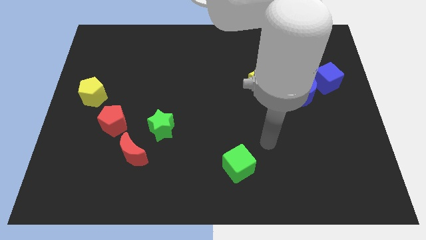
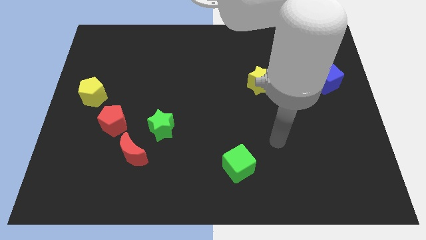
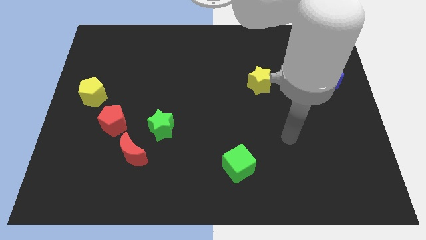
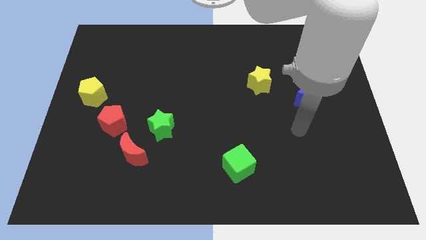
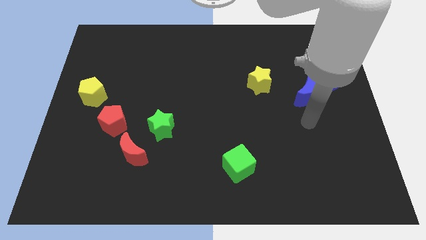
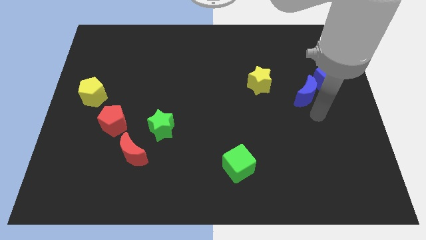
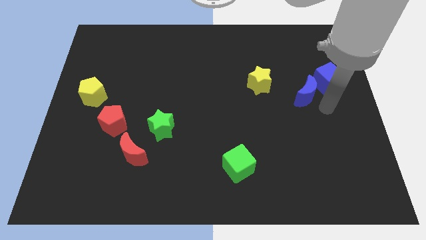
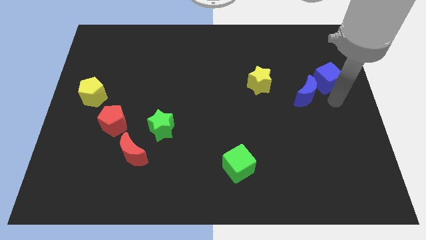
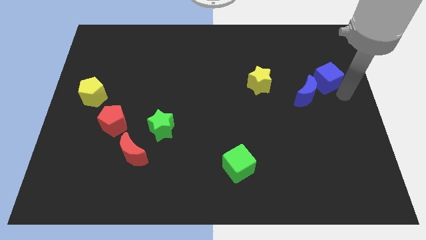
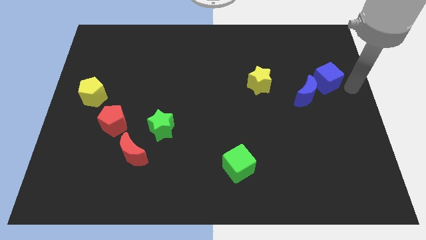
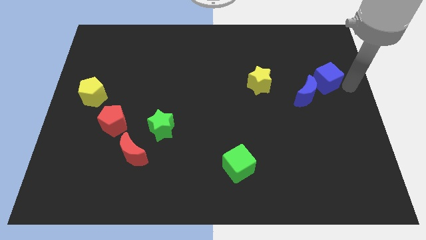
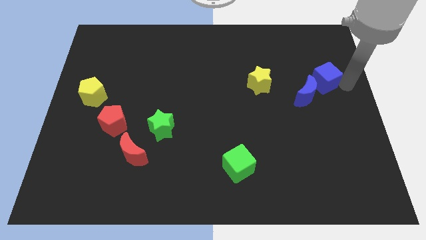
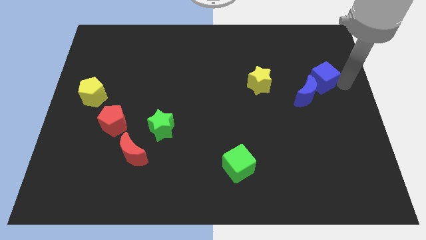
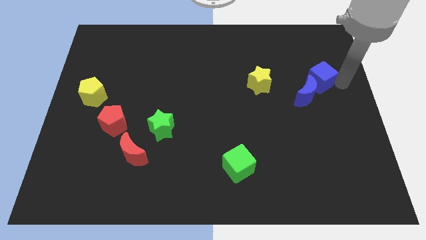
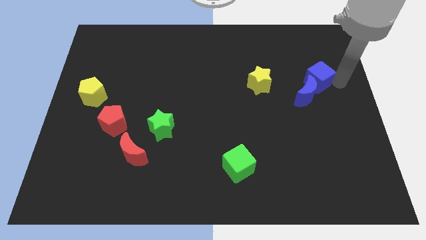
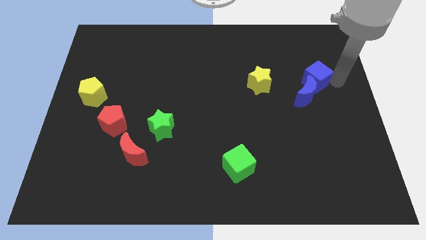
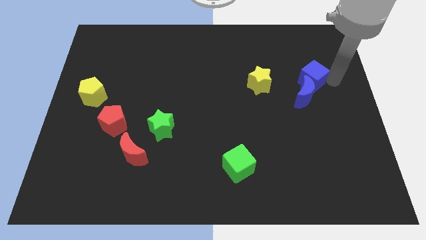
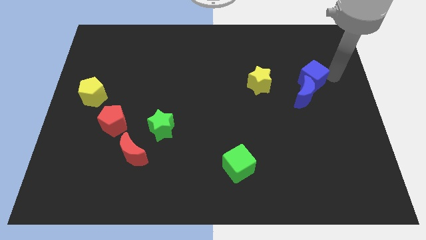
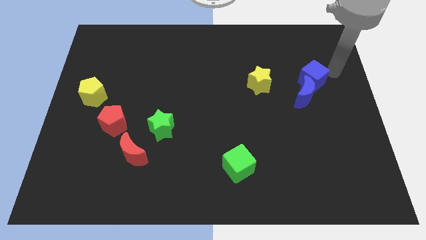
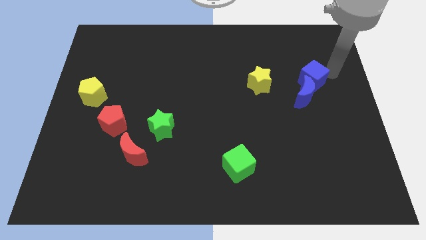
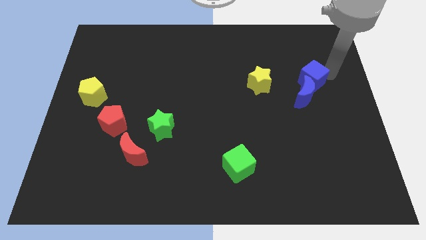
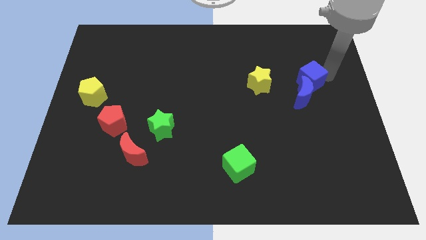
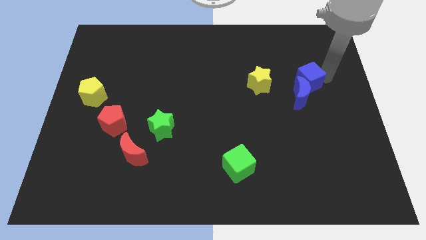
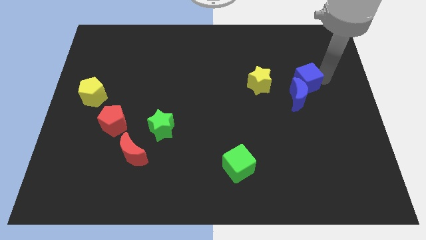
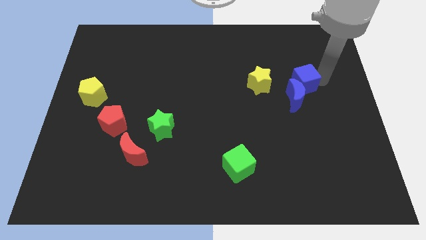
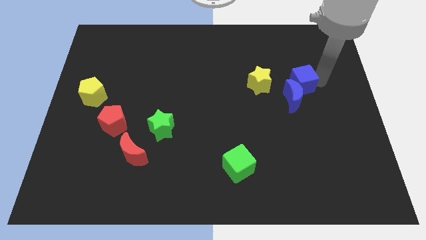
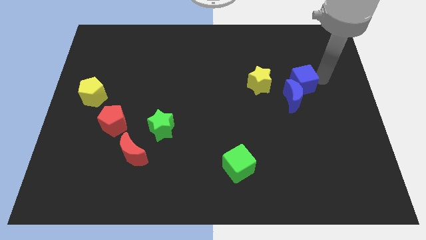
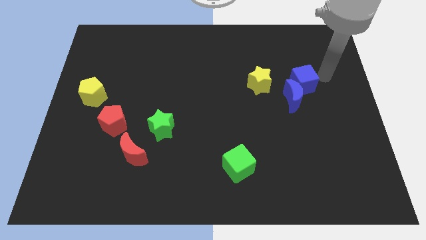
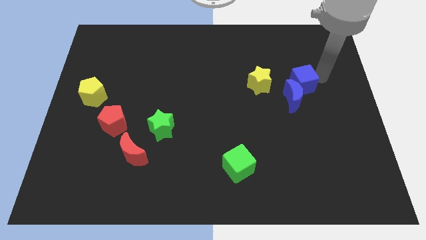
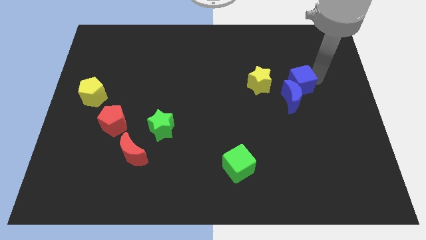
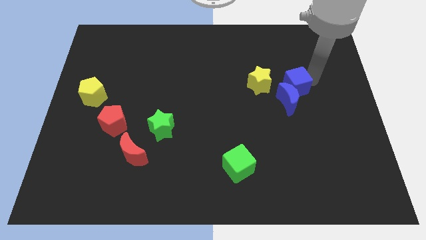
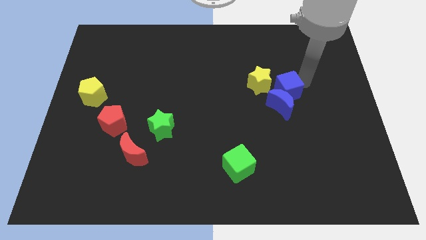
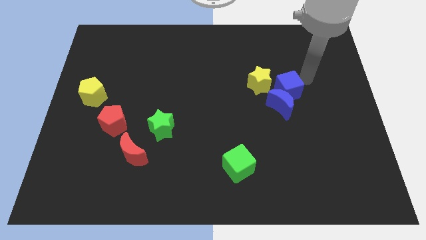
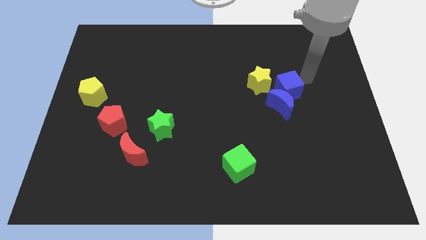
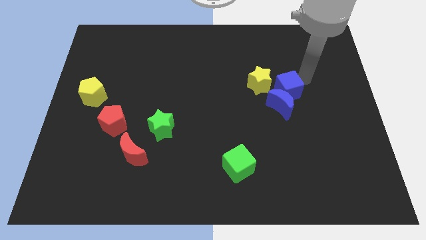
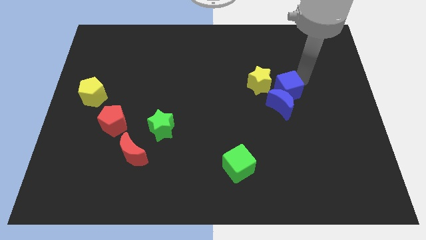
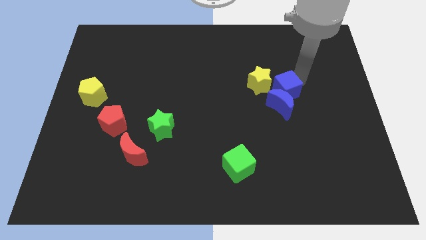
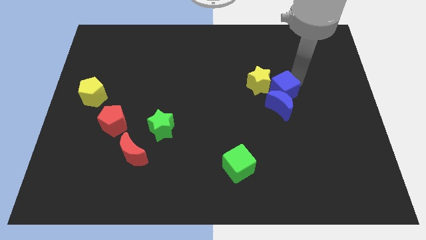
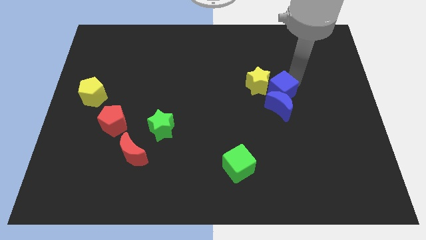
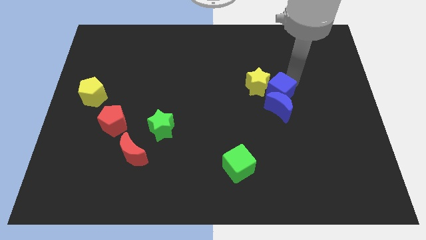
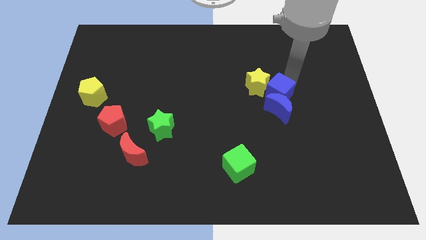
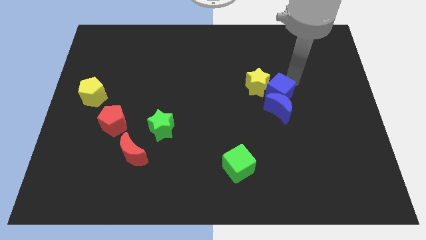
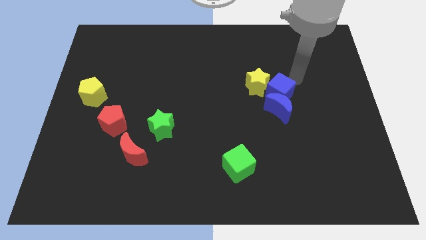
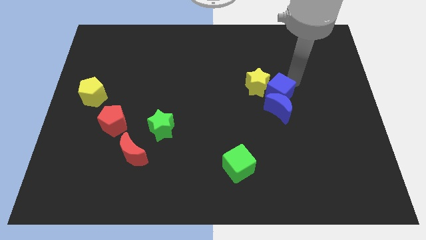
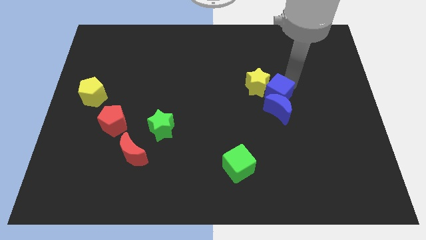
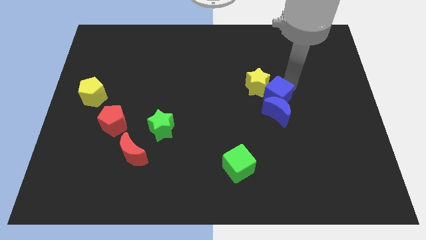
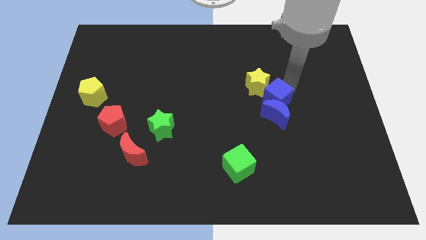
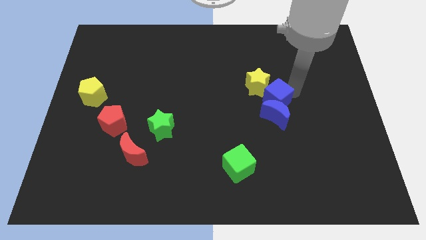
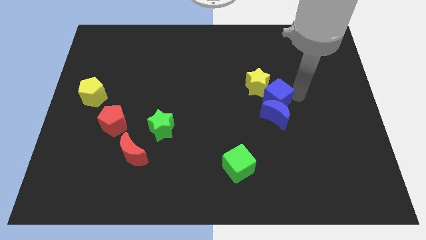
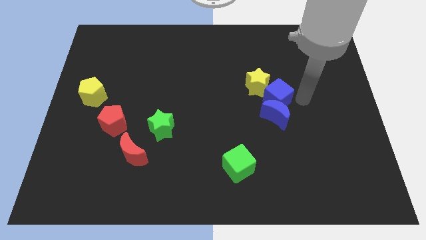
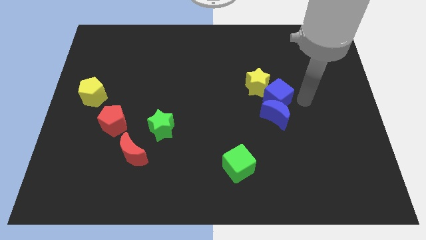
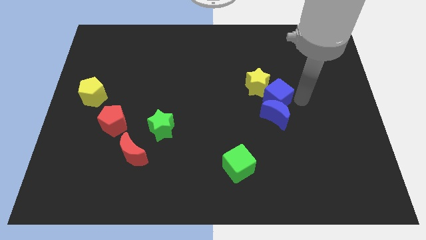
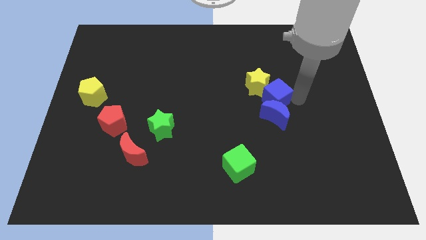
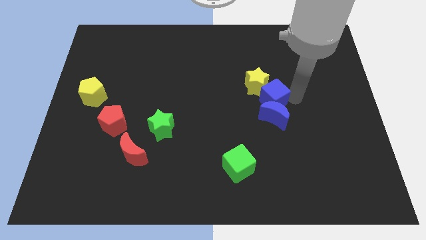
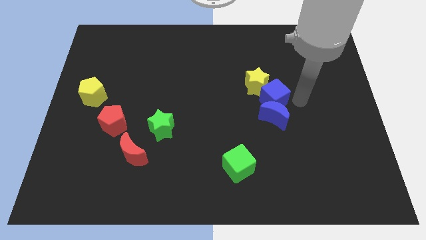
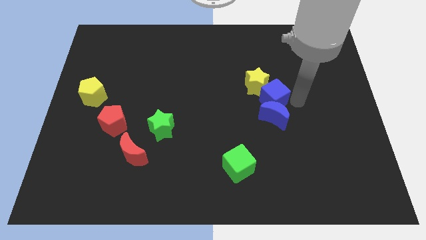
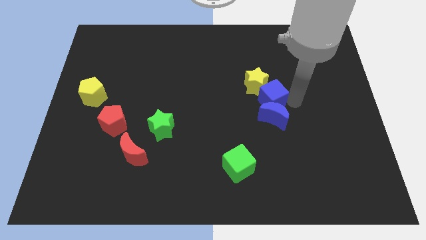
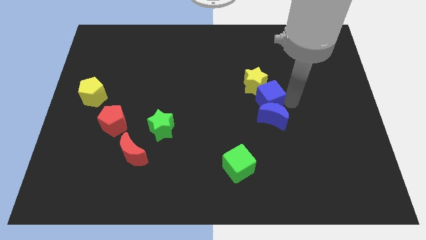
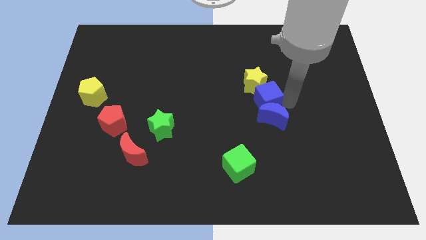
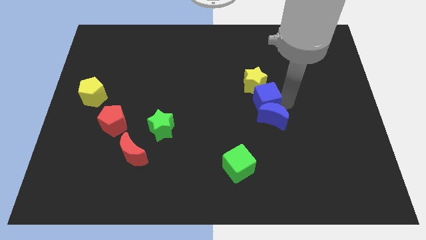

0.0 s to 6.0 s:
slide the blue cube to the middle
